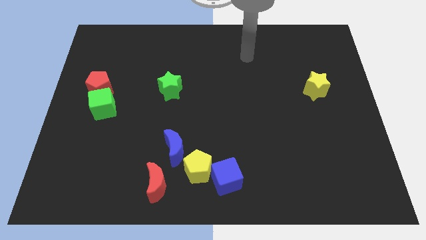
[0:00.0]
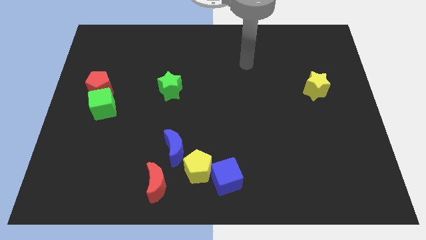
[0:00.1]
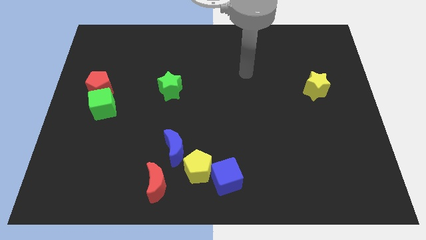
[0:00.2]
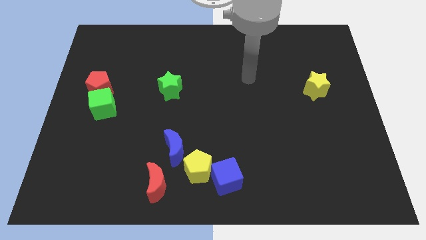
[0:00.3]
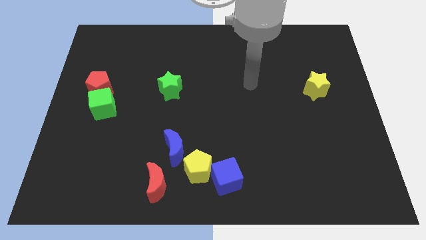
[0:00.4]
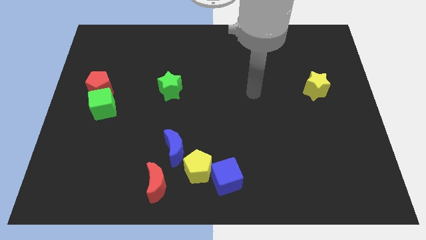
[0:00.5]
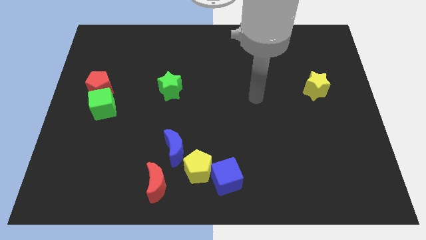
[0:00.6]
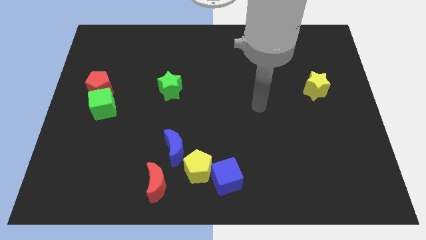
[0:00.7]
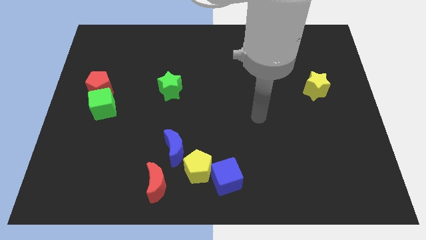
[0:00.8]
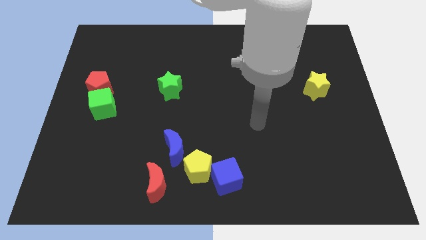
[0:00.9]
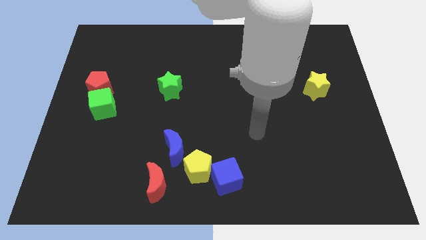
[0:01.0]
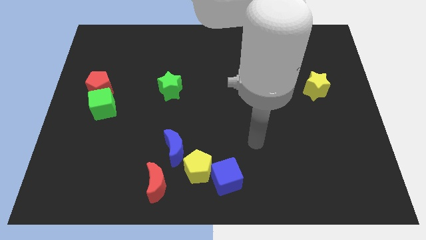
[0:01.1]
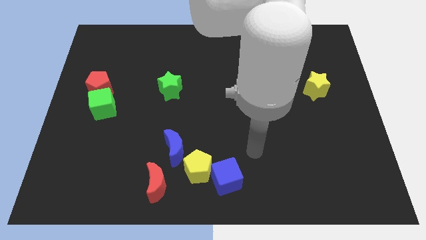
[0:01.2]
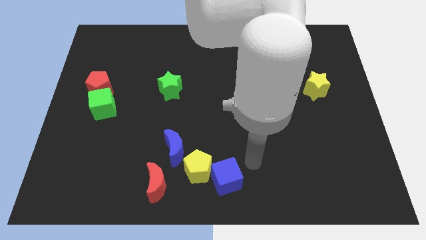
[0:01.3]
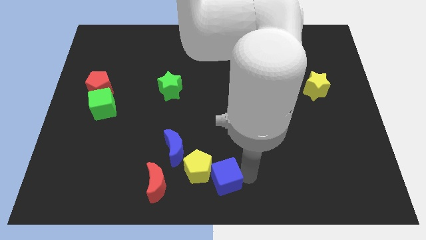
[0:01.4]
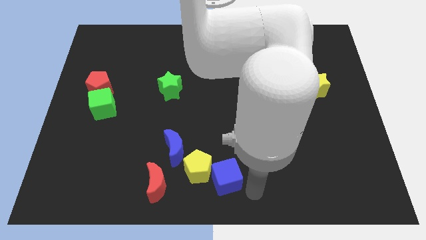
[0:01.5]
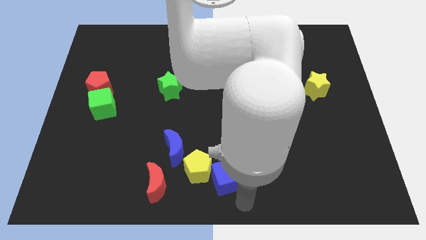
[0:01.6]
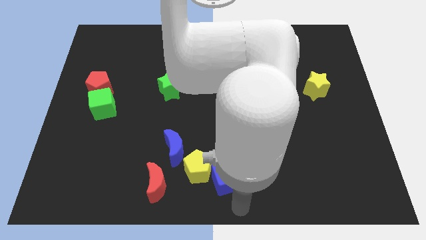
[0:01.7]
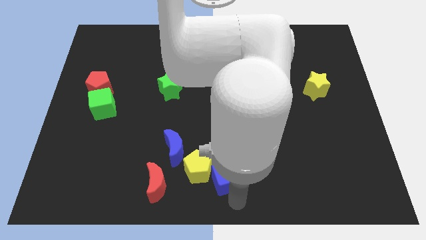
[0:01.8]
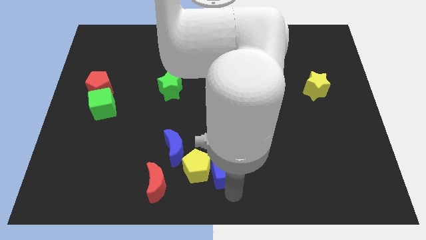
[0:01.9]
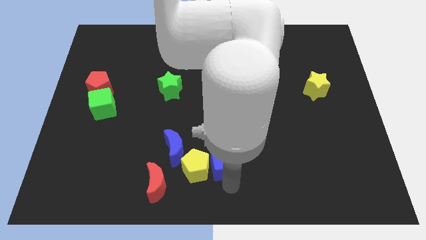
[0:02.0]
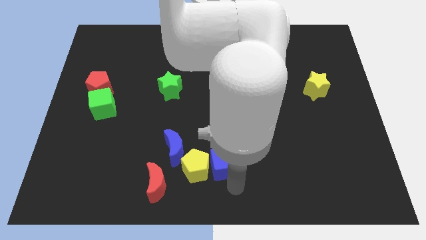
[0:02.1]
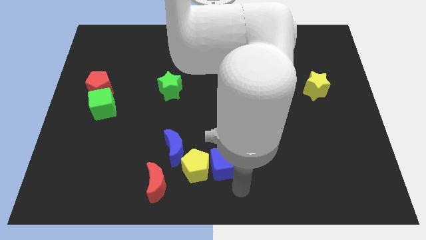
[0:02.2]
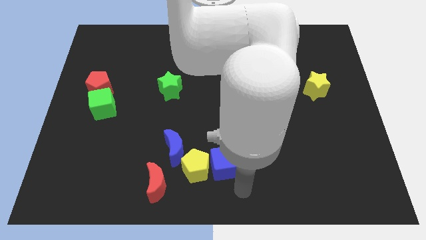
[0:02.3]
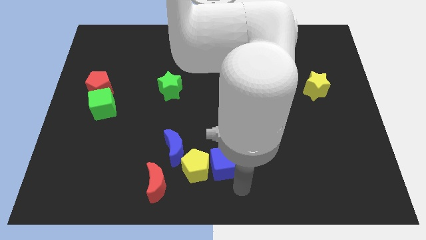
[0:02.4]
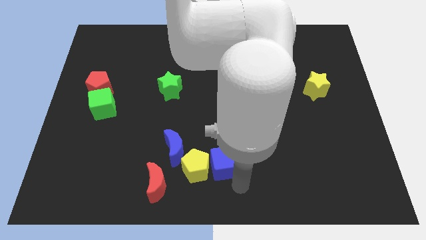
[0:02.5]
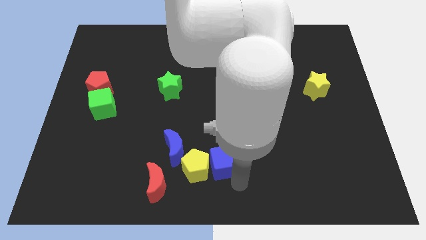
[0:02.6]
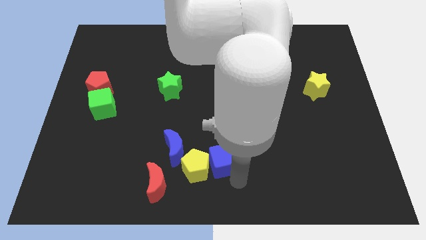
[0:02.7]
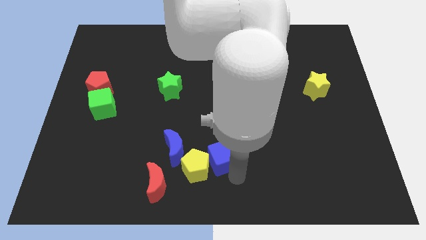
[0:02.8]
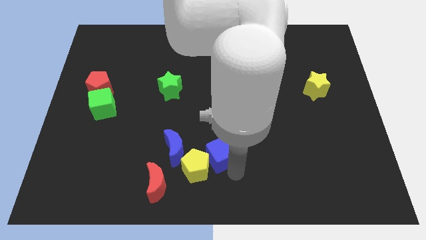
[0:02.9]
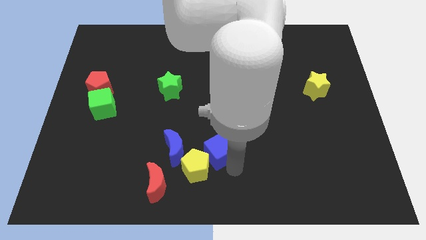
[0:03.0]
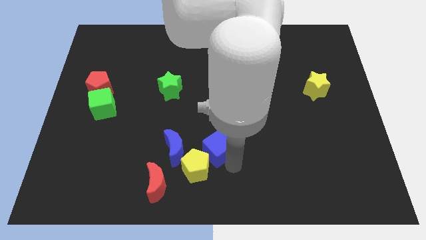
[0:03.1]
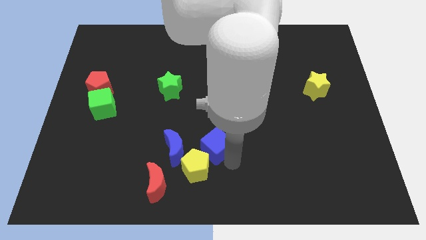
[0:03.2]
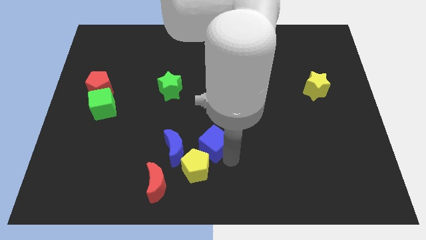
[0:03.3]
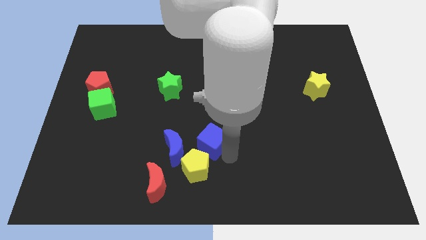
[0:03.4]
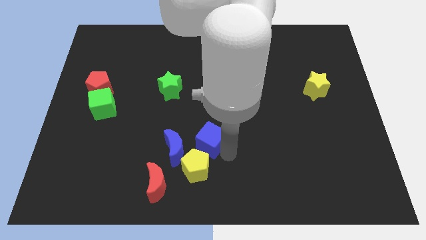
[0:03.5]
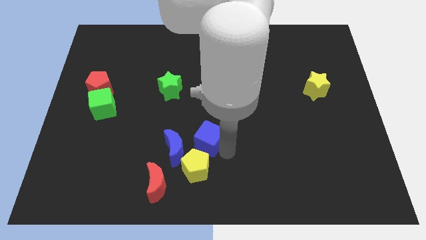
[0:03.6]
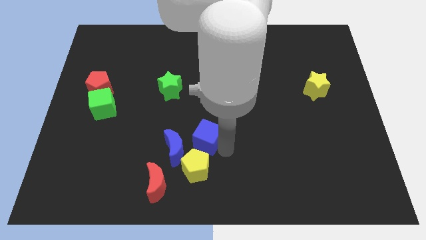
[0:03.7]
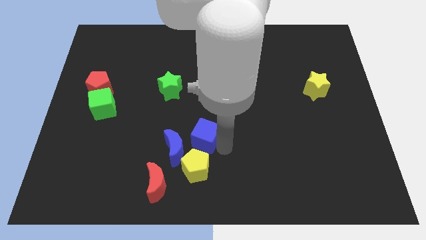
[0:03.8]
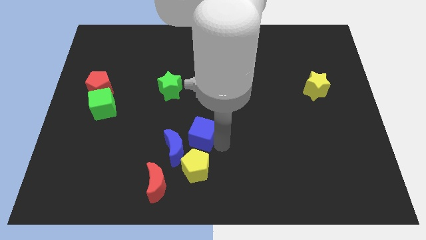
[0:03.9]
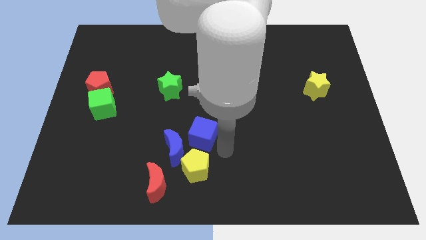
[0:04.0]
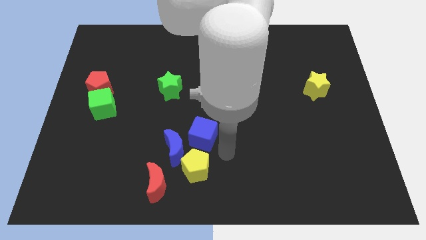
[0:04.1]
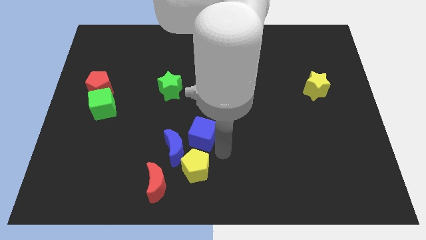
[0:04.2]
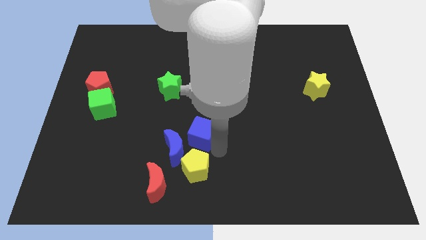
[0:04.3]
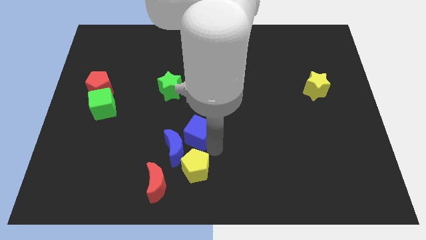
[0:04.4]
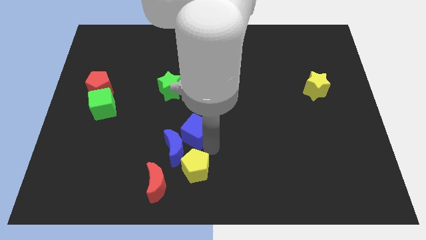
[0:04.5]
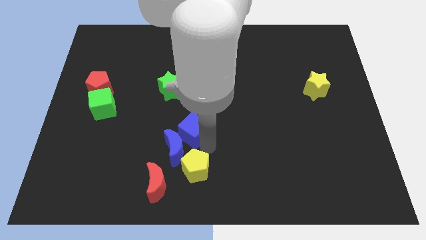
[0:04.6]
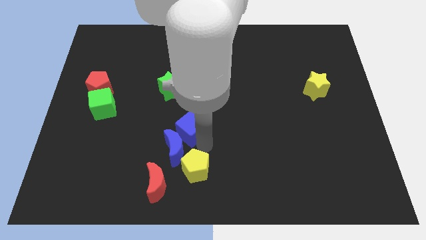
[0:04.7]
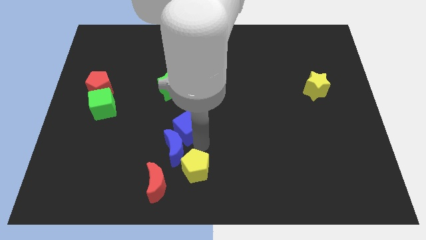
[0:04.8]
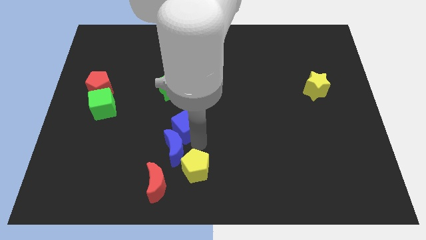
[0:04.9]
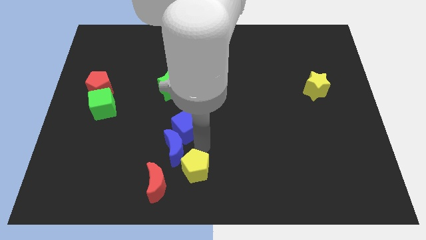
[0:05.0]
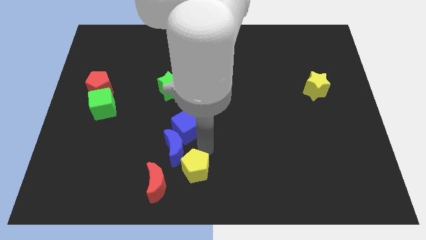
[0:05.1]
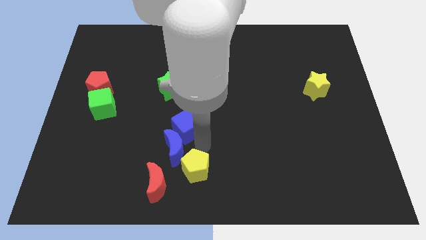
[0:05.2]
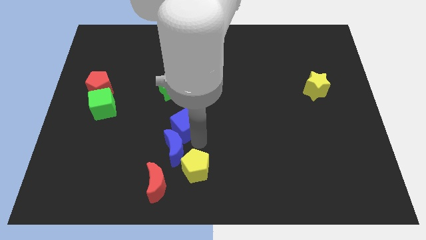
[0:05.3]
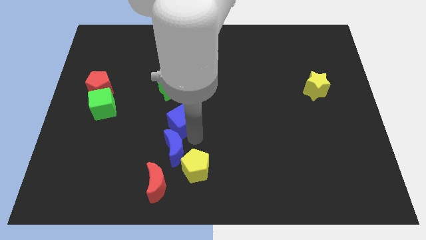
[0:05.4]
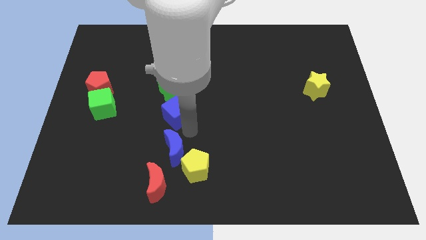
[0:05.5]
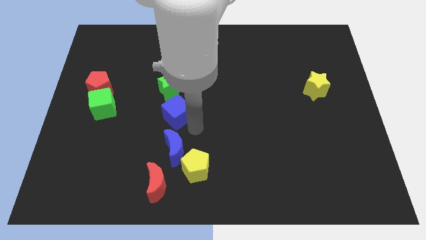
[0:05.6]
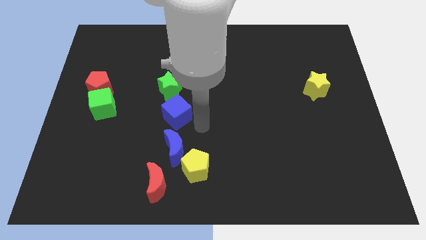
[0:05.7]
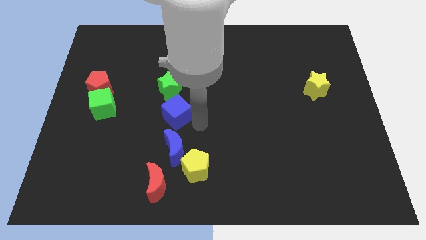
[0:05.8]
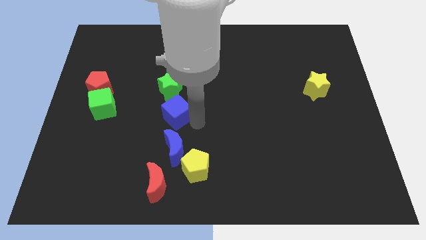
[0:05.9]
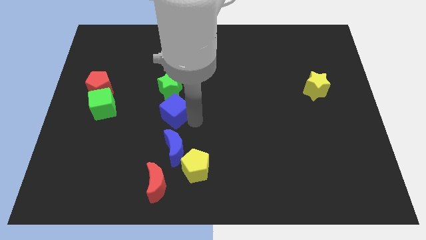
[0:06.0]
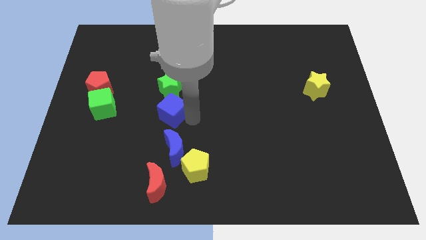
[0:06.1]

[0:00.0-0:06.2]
push the blue cube up and left

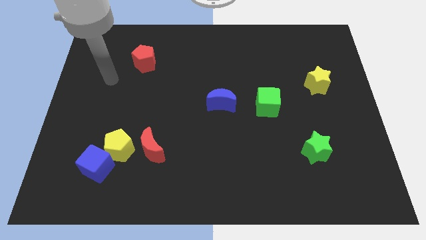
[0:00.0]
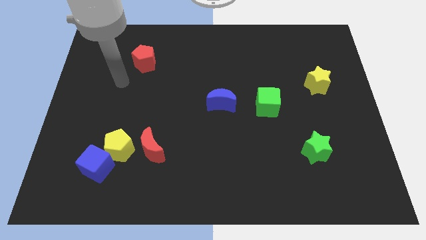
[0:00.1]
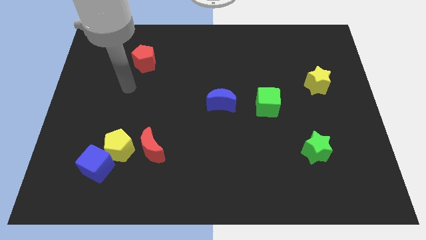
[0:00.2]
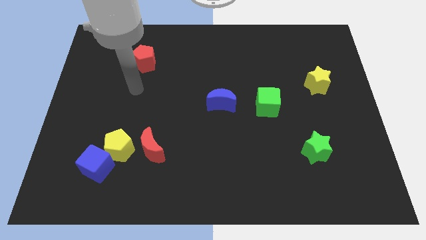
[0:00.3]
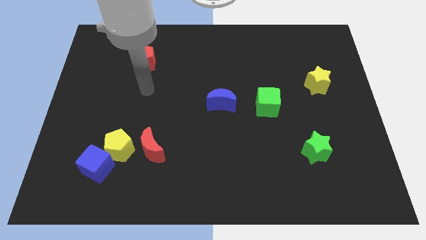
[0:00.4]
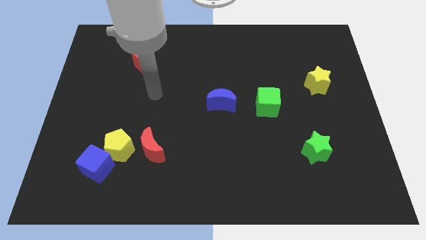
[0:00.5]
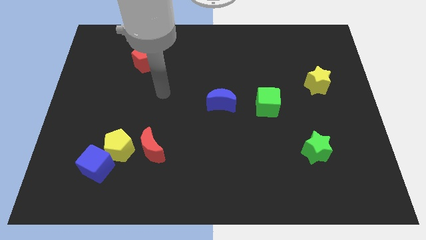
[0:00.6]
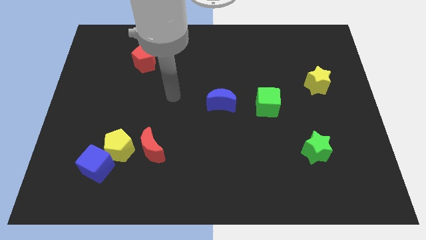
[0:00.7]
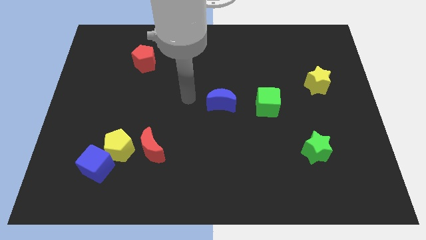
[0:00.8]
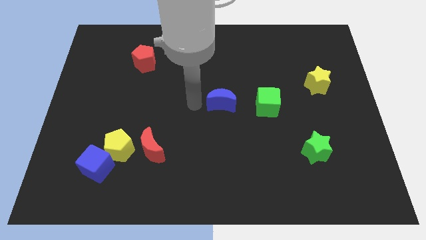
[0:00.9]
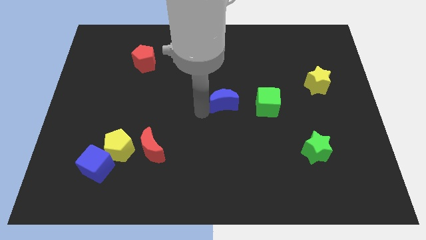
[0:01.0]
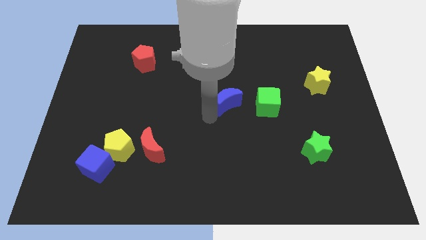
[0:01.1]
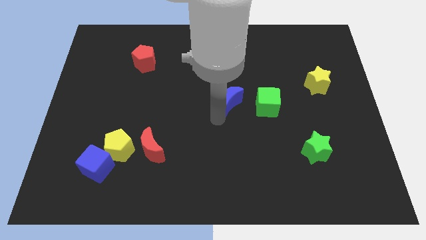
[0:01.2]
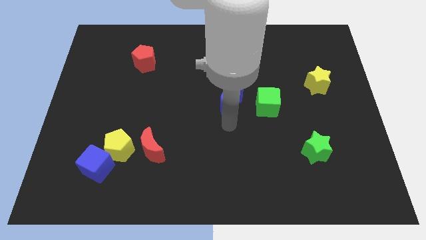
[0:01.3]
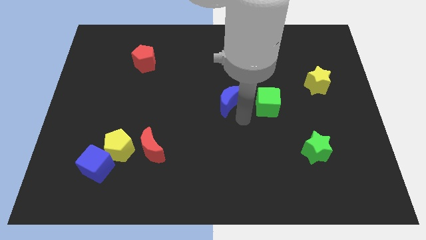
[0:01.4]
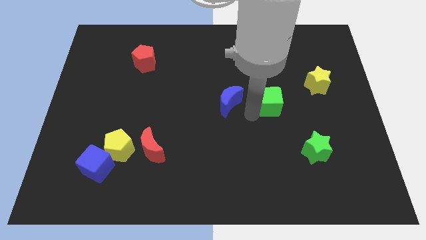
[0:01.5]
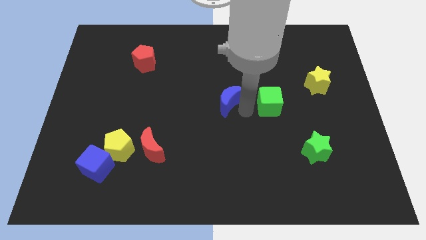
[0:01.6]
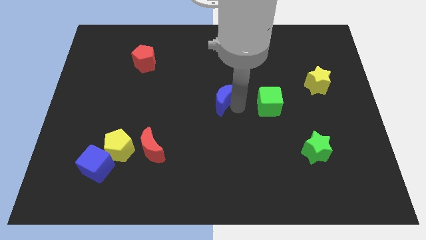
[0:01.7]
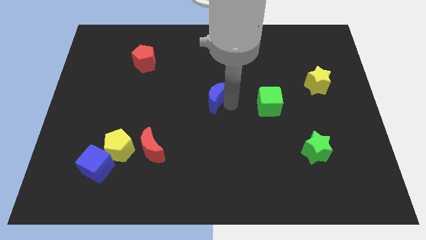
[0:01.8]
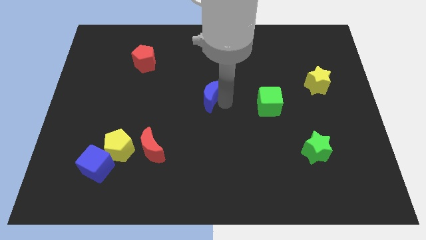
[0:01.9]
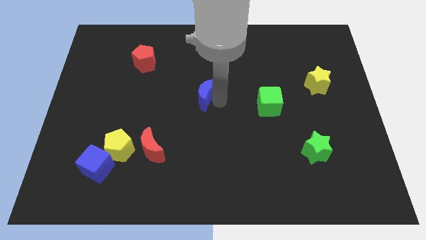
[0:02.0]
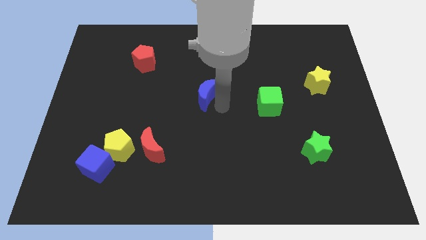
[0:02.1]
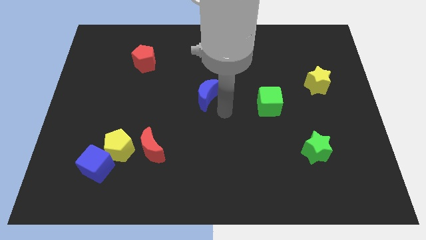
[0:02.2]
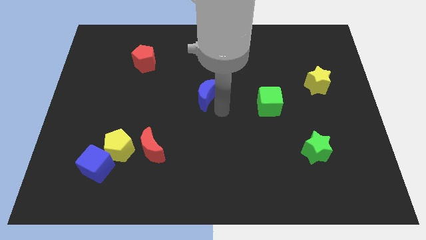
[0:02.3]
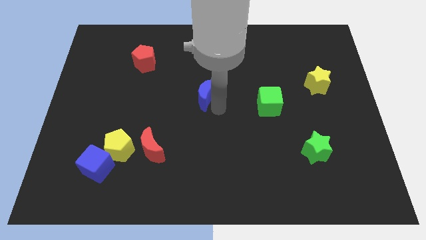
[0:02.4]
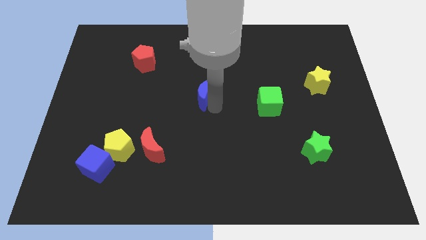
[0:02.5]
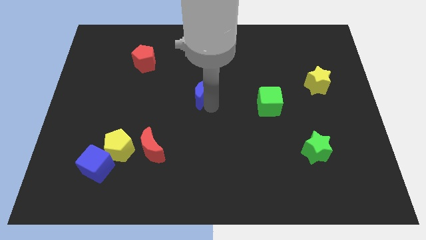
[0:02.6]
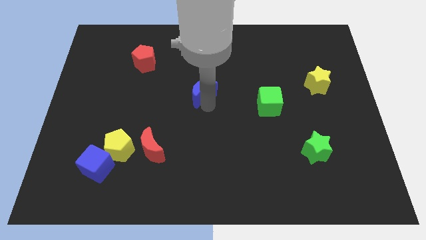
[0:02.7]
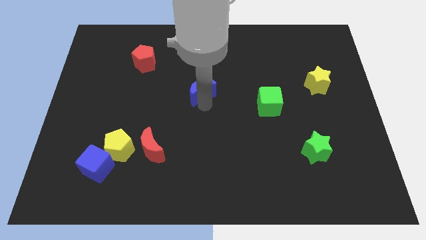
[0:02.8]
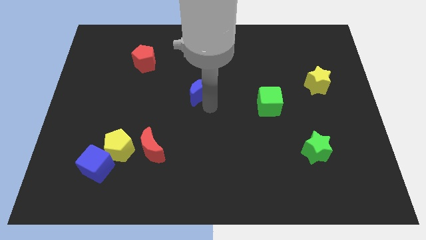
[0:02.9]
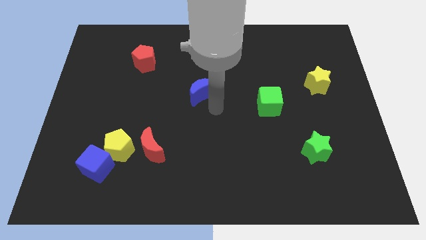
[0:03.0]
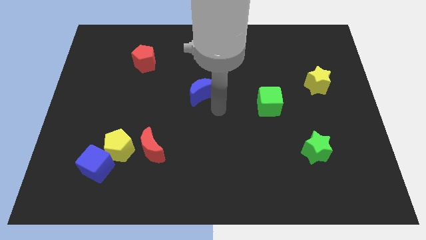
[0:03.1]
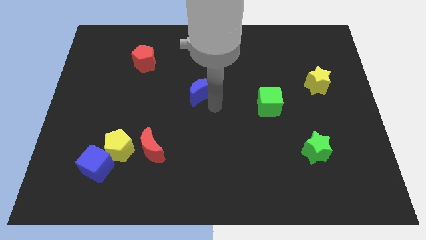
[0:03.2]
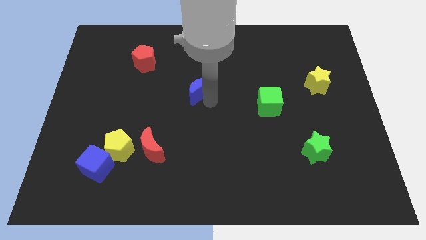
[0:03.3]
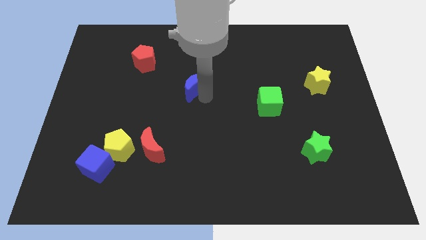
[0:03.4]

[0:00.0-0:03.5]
move the blue moon up and to the left a little bit
